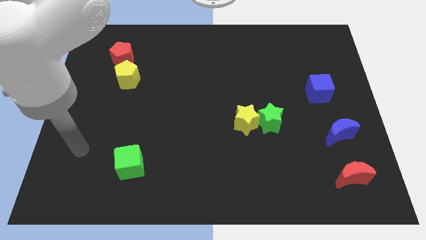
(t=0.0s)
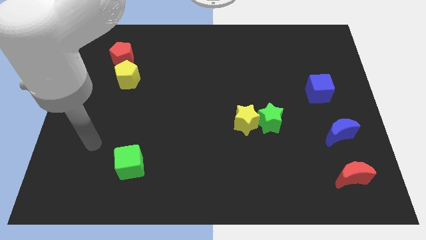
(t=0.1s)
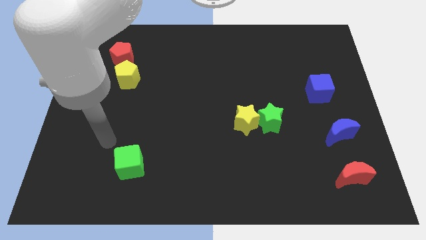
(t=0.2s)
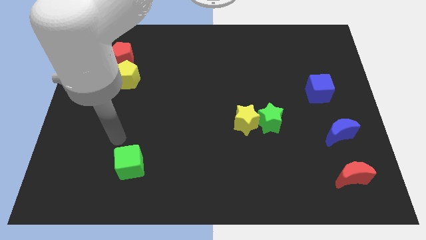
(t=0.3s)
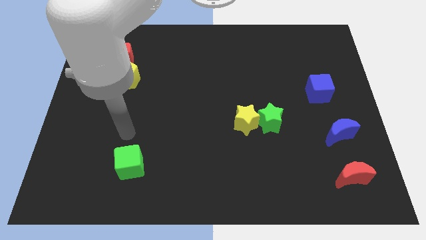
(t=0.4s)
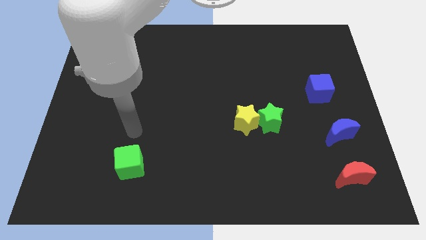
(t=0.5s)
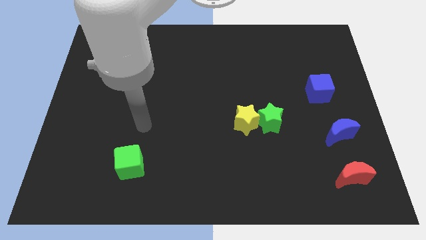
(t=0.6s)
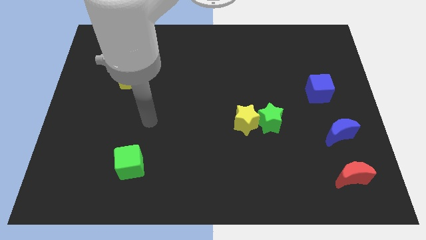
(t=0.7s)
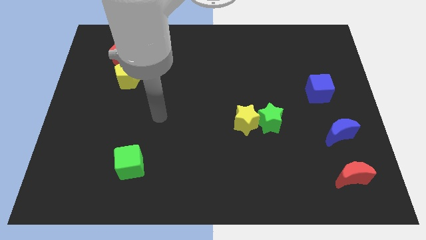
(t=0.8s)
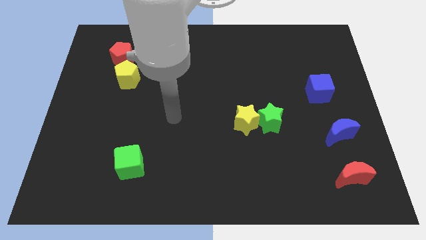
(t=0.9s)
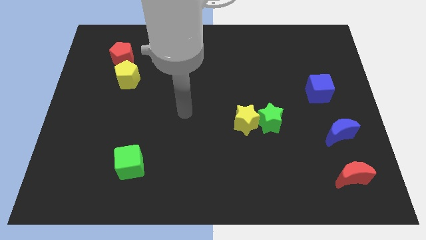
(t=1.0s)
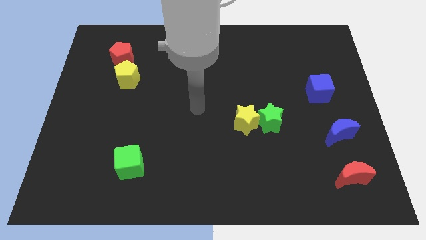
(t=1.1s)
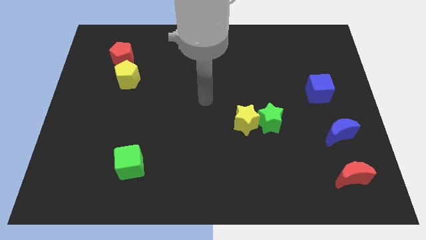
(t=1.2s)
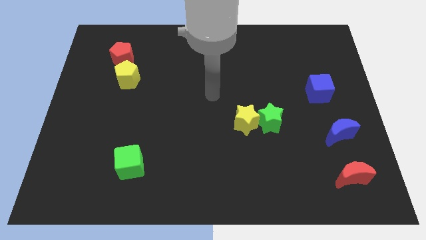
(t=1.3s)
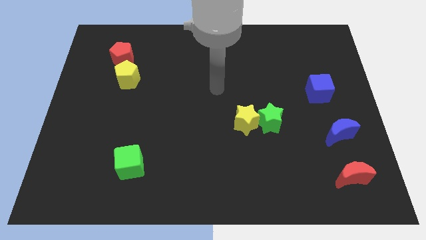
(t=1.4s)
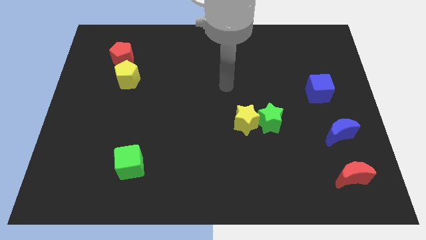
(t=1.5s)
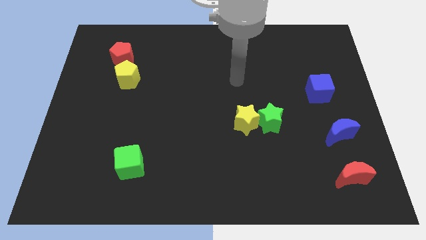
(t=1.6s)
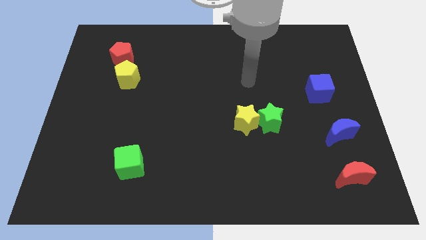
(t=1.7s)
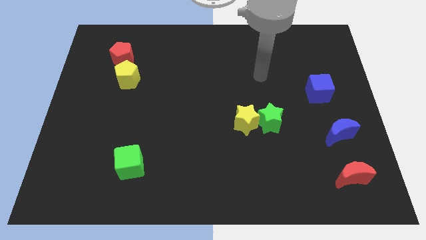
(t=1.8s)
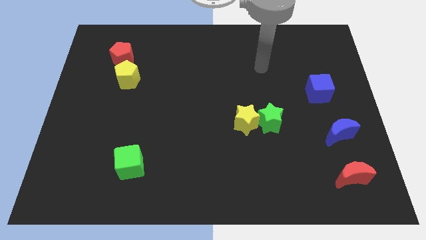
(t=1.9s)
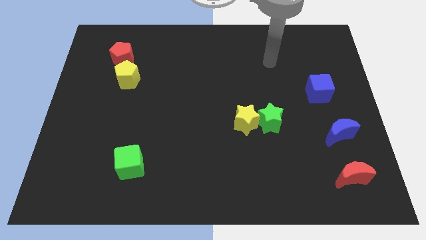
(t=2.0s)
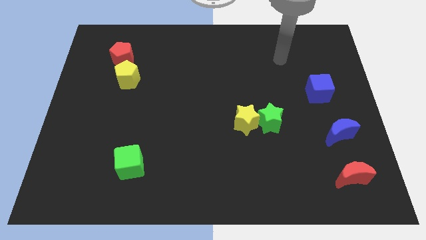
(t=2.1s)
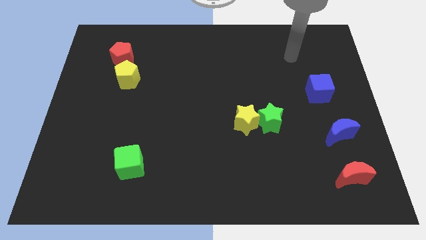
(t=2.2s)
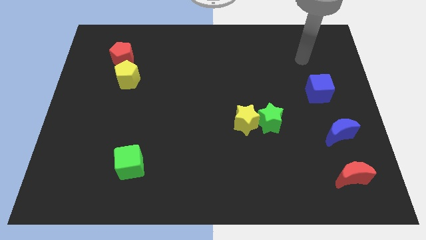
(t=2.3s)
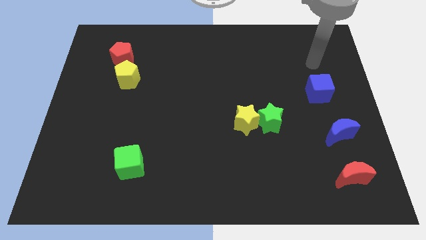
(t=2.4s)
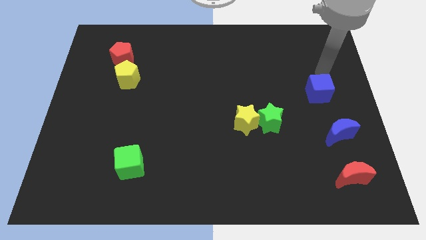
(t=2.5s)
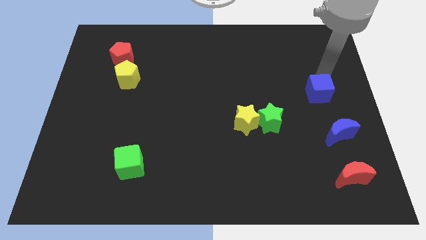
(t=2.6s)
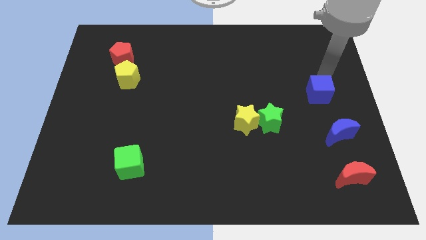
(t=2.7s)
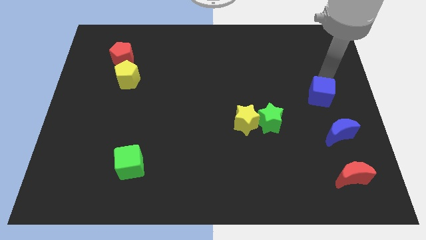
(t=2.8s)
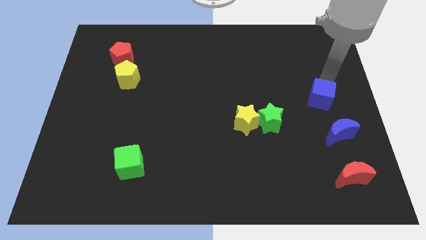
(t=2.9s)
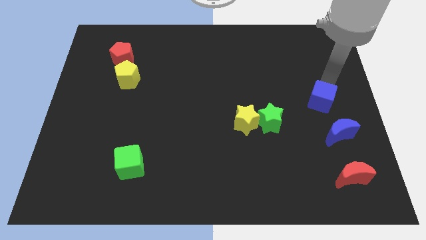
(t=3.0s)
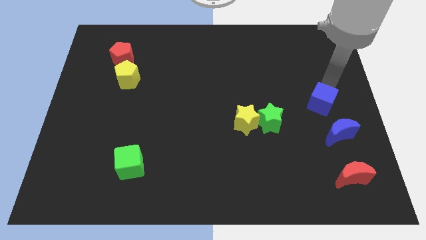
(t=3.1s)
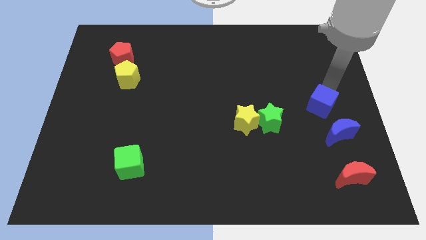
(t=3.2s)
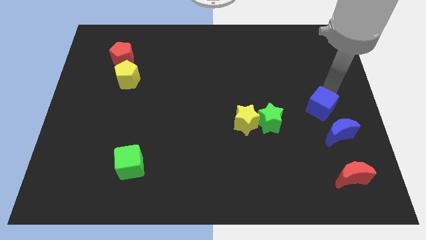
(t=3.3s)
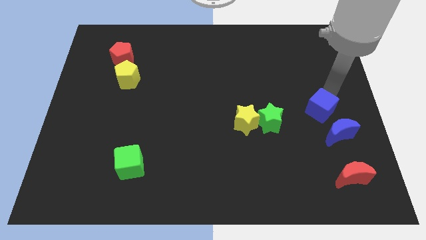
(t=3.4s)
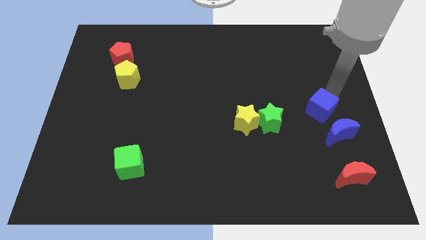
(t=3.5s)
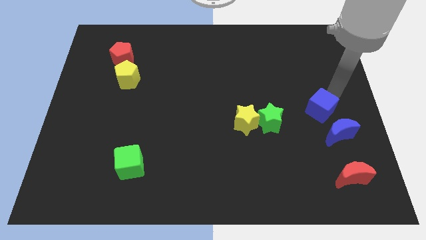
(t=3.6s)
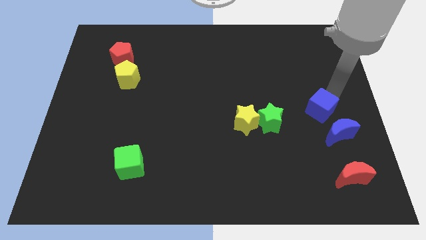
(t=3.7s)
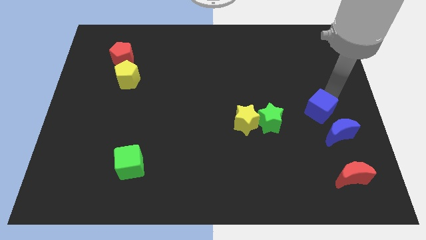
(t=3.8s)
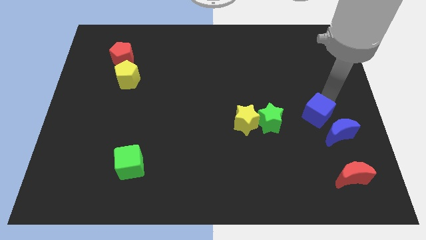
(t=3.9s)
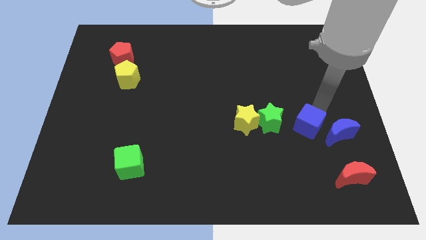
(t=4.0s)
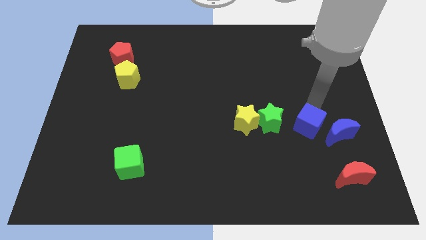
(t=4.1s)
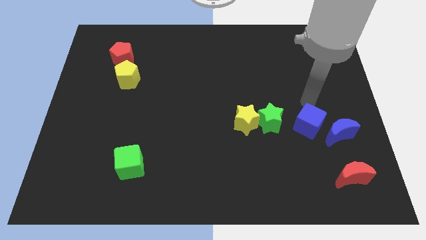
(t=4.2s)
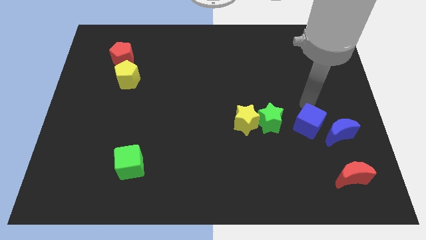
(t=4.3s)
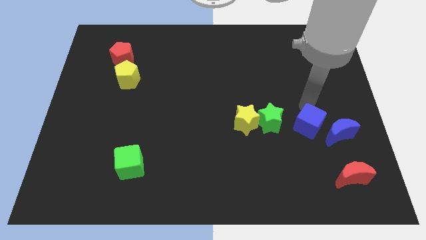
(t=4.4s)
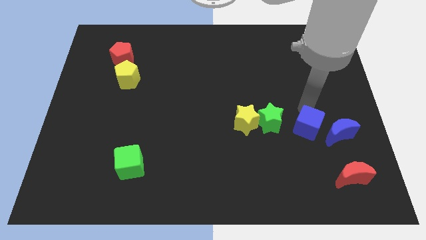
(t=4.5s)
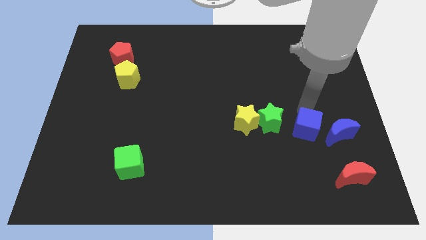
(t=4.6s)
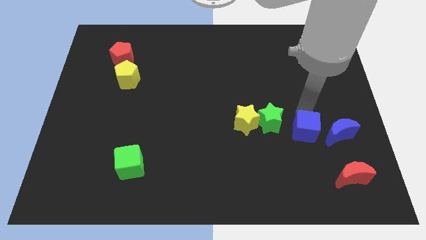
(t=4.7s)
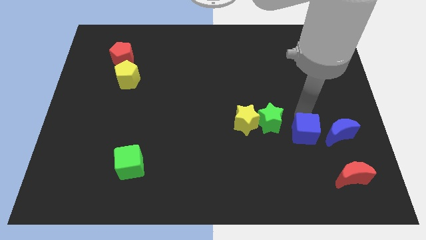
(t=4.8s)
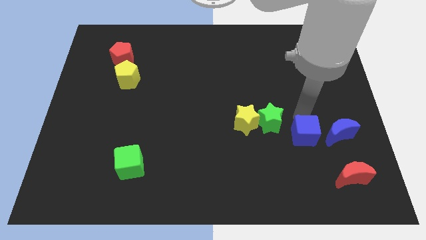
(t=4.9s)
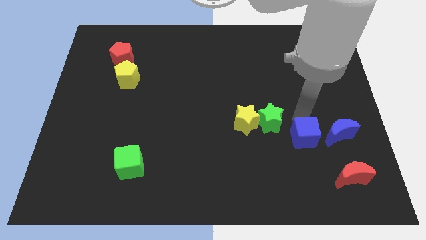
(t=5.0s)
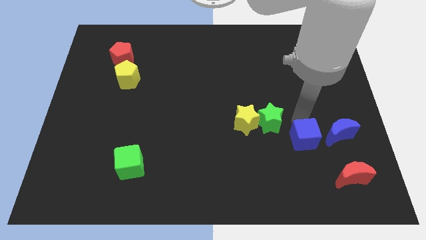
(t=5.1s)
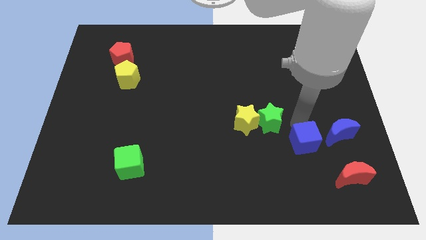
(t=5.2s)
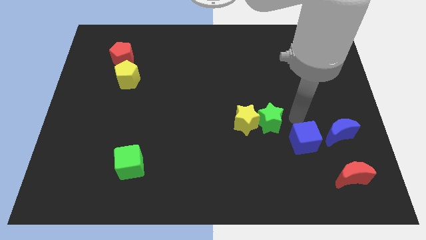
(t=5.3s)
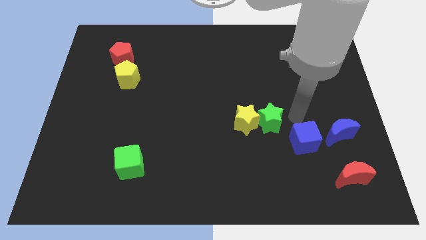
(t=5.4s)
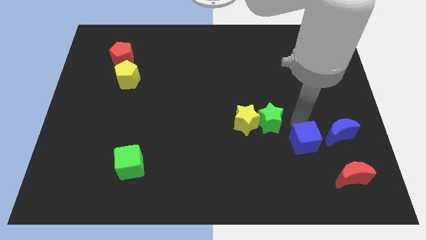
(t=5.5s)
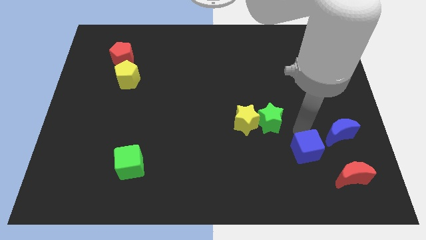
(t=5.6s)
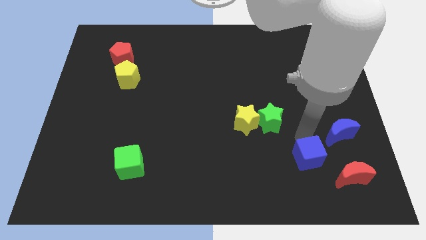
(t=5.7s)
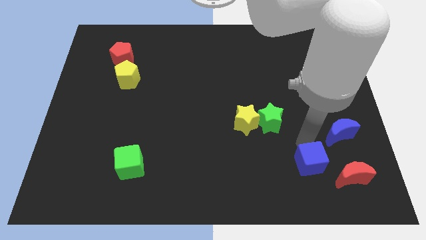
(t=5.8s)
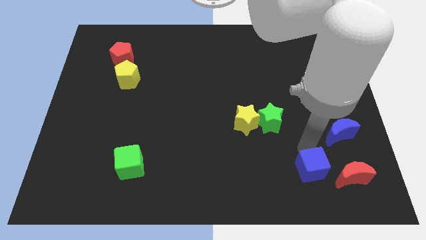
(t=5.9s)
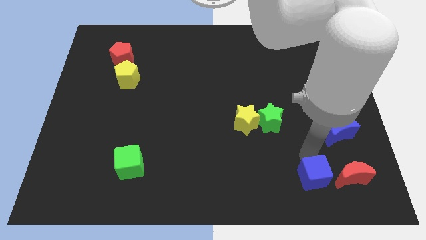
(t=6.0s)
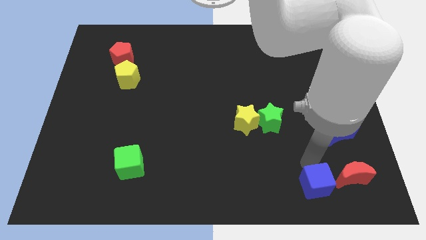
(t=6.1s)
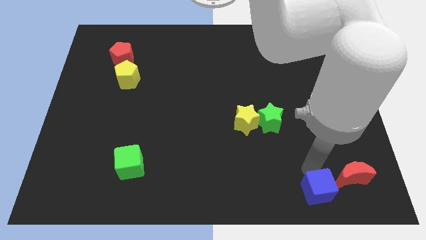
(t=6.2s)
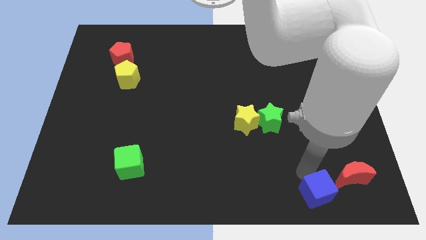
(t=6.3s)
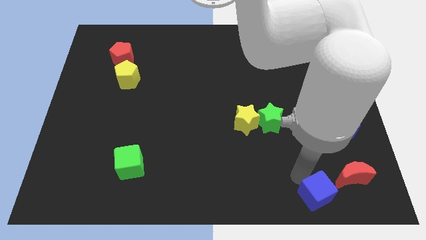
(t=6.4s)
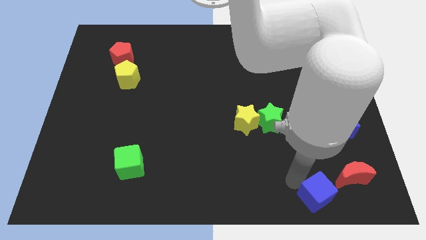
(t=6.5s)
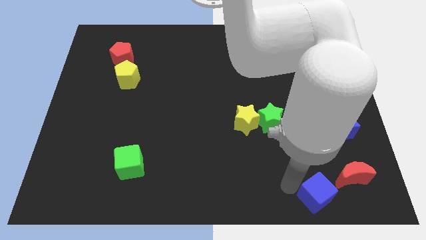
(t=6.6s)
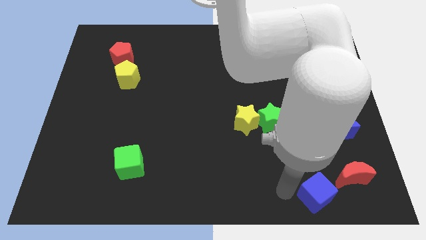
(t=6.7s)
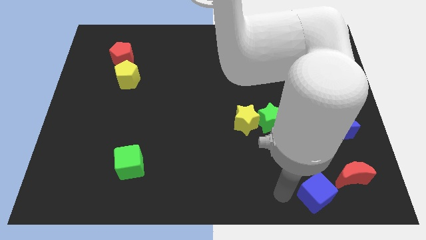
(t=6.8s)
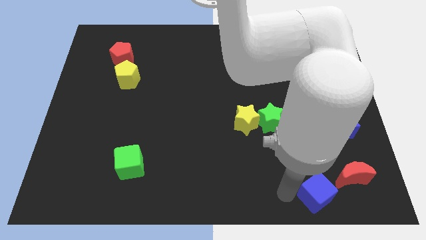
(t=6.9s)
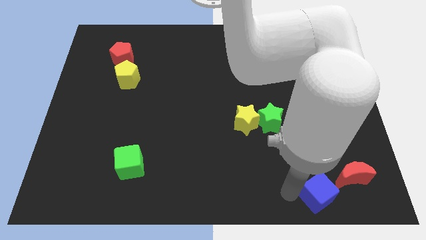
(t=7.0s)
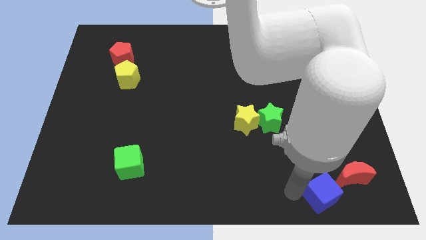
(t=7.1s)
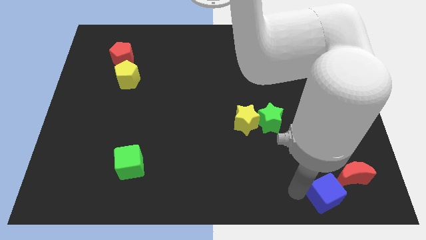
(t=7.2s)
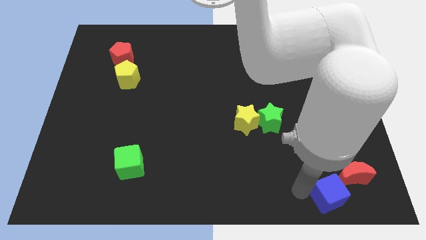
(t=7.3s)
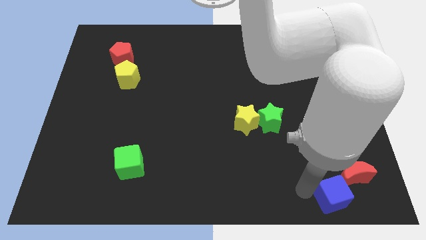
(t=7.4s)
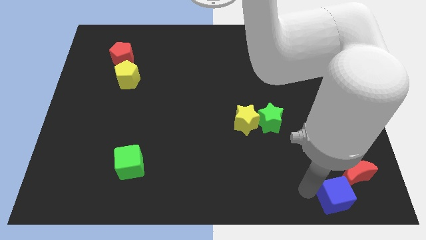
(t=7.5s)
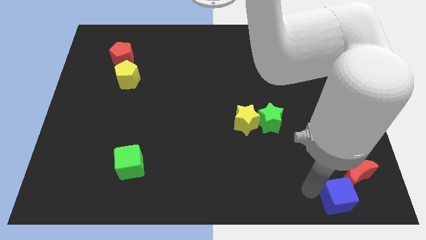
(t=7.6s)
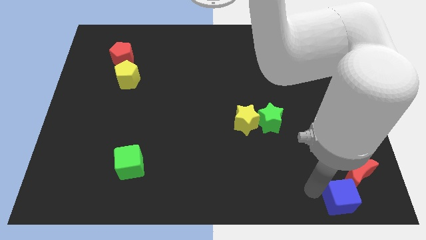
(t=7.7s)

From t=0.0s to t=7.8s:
put the blue cube to the bottom side of the blue moon
